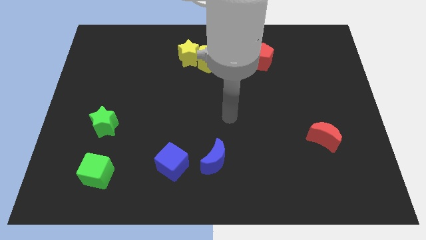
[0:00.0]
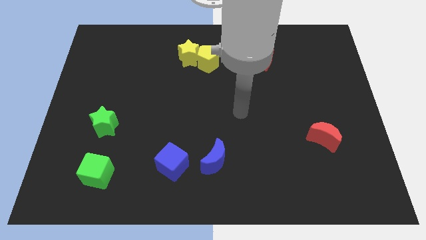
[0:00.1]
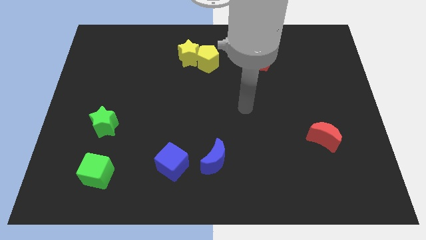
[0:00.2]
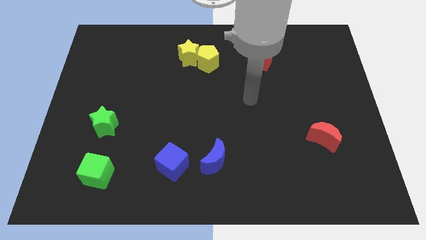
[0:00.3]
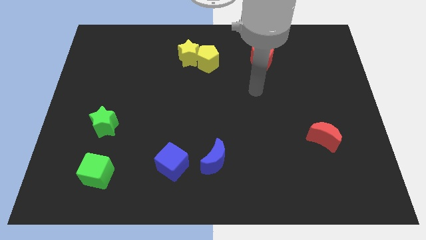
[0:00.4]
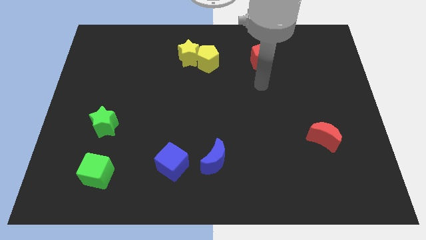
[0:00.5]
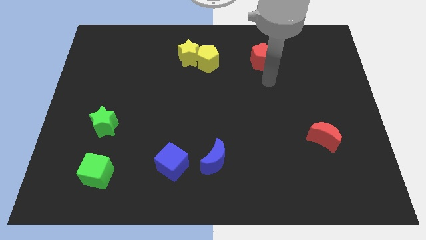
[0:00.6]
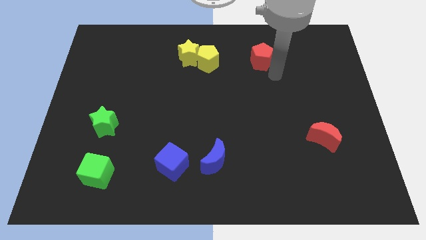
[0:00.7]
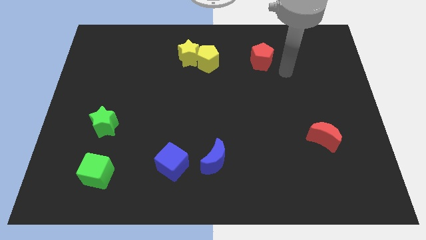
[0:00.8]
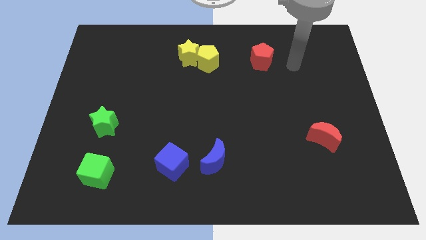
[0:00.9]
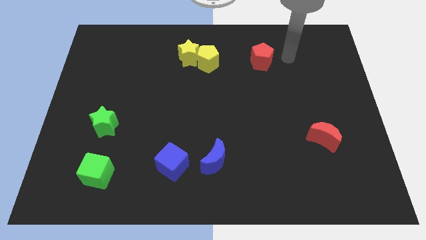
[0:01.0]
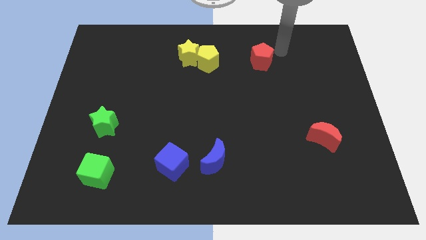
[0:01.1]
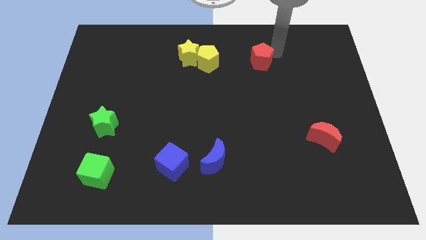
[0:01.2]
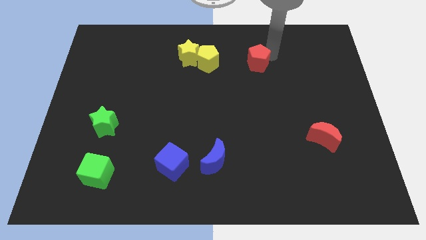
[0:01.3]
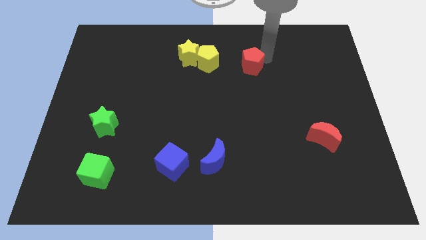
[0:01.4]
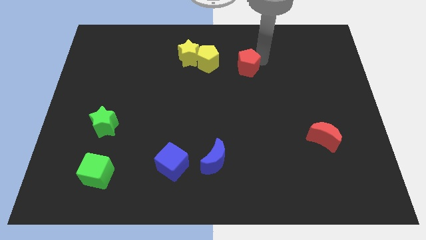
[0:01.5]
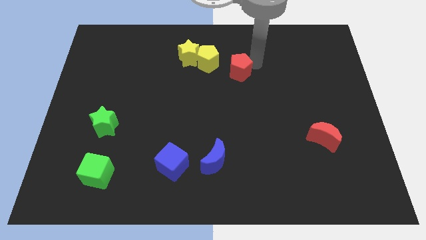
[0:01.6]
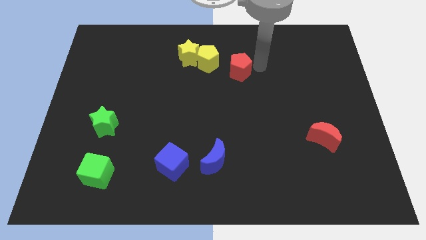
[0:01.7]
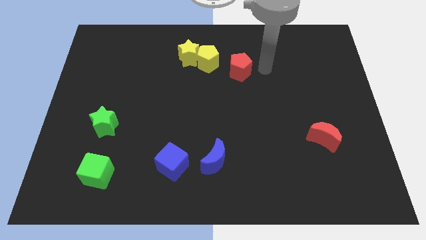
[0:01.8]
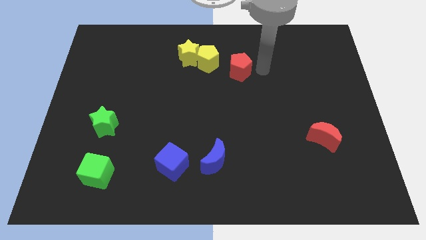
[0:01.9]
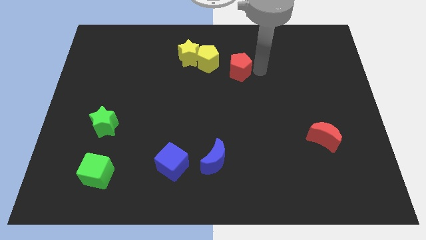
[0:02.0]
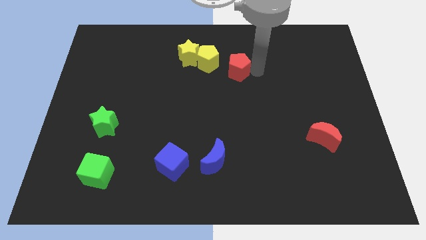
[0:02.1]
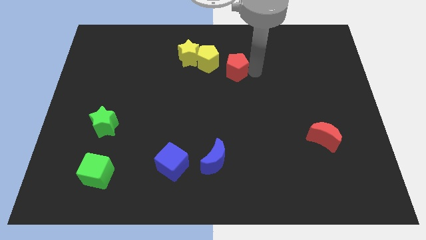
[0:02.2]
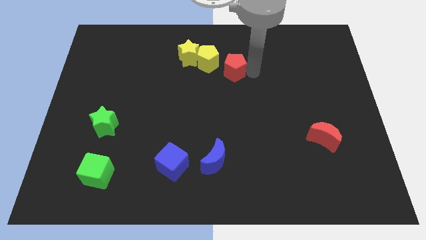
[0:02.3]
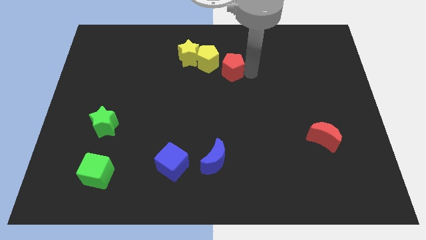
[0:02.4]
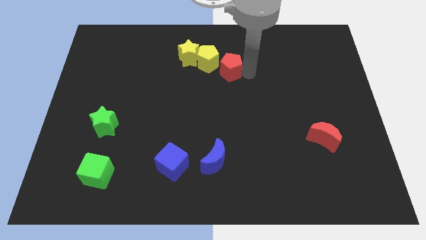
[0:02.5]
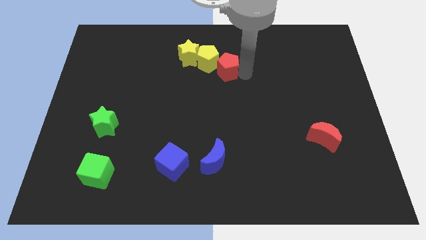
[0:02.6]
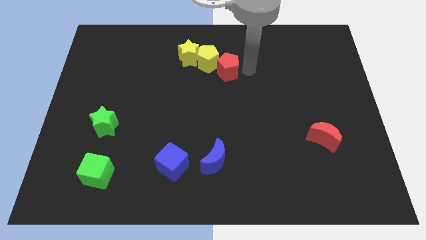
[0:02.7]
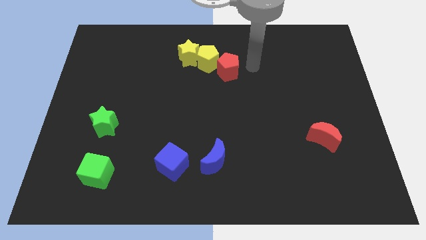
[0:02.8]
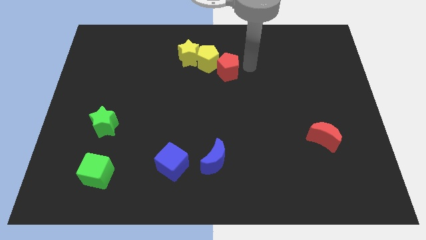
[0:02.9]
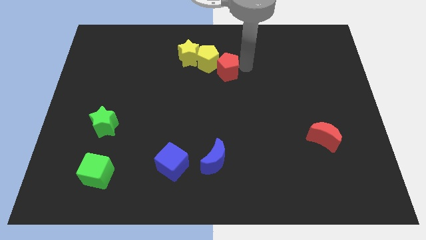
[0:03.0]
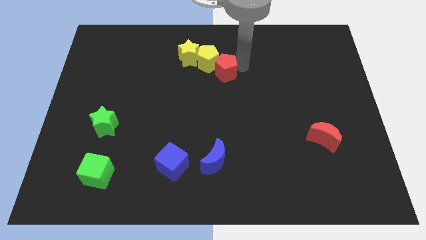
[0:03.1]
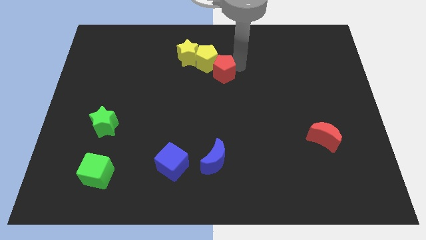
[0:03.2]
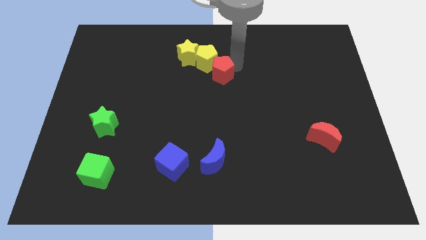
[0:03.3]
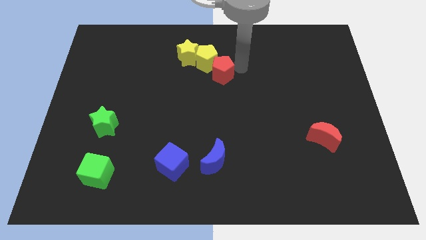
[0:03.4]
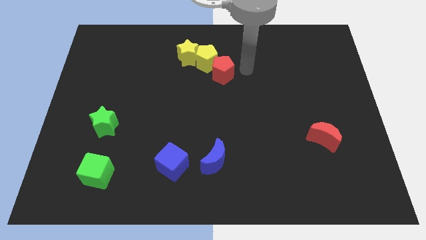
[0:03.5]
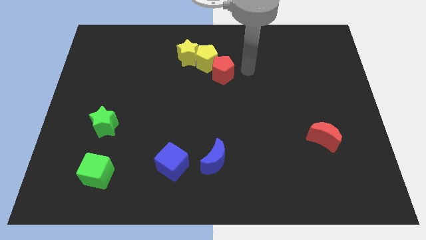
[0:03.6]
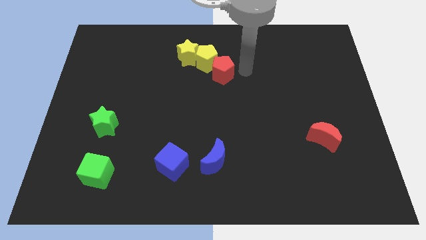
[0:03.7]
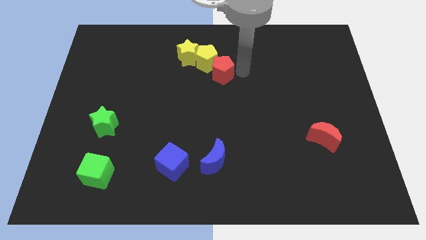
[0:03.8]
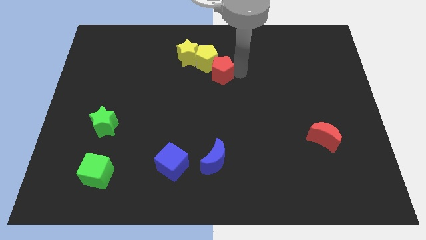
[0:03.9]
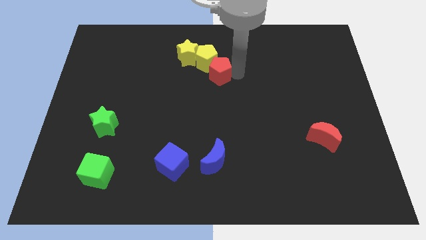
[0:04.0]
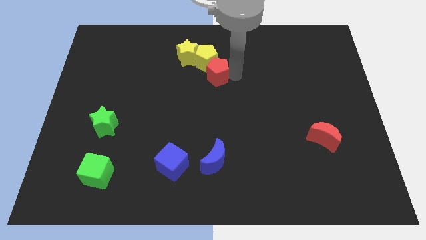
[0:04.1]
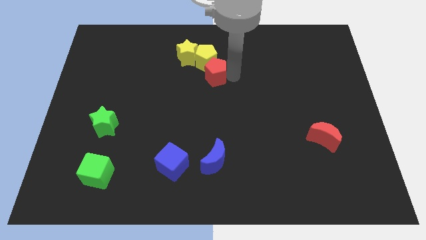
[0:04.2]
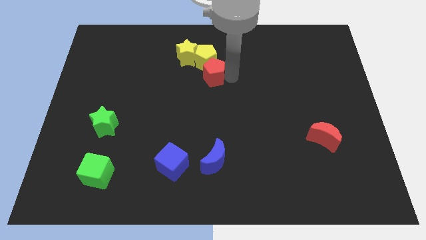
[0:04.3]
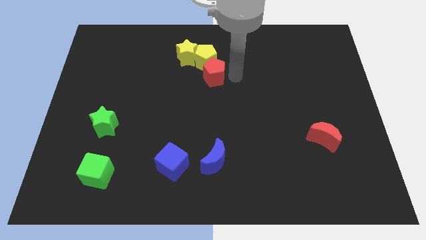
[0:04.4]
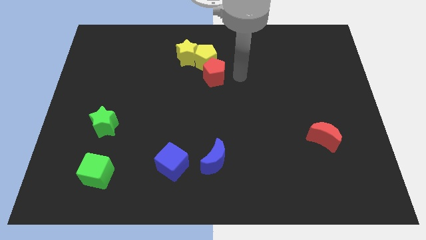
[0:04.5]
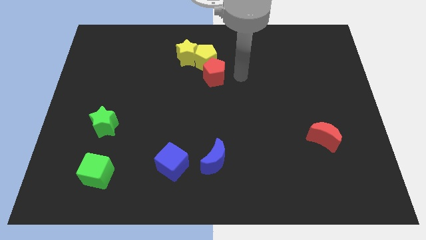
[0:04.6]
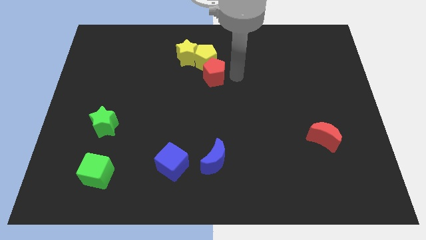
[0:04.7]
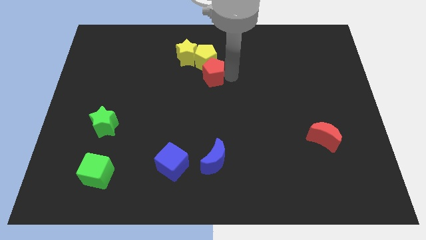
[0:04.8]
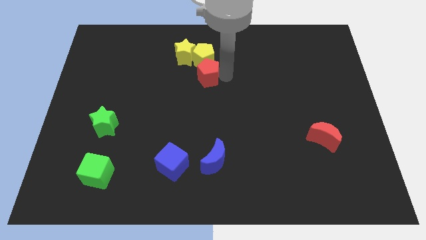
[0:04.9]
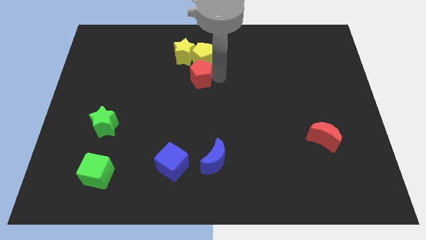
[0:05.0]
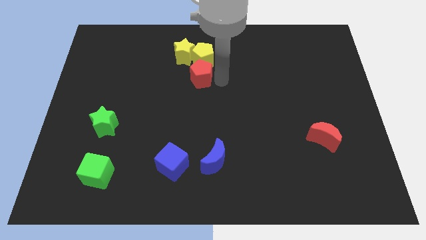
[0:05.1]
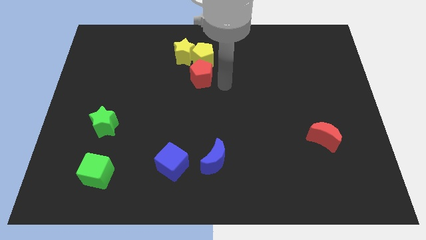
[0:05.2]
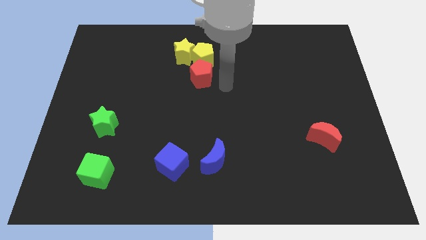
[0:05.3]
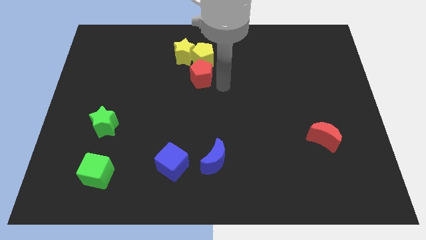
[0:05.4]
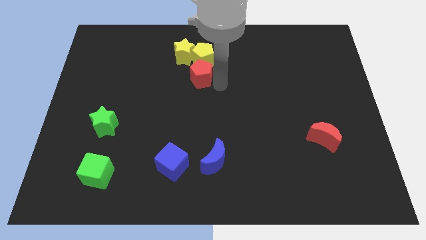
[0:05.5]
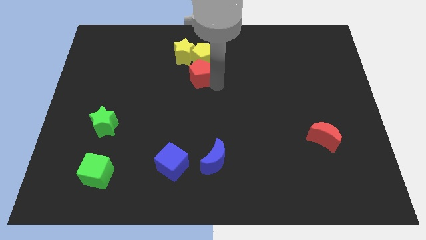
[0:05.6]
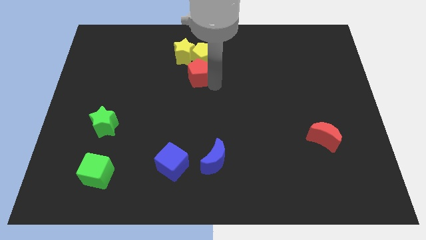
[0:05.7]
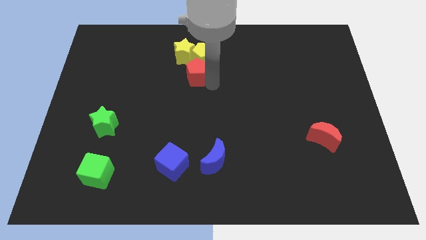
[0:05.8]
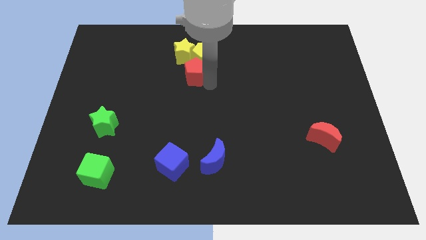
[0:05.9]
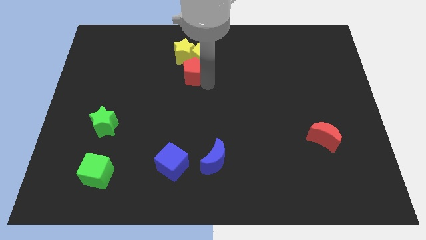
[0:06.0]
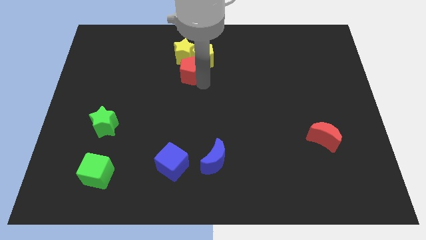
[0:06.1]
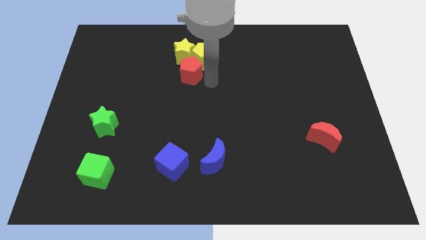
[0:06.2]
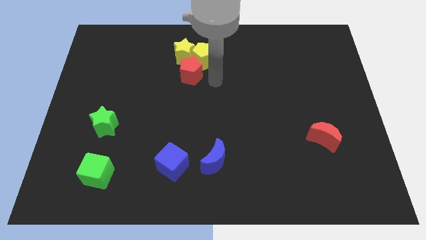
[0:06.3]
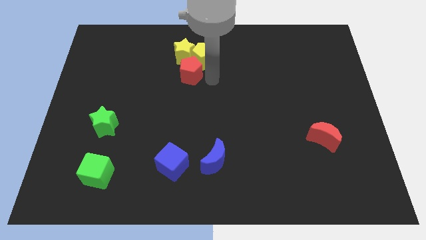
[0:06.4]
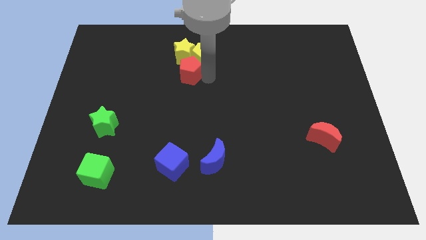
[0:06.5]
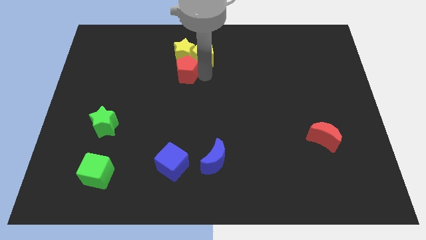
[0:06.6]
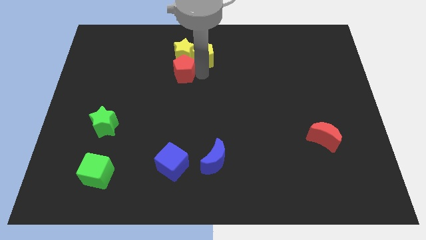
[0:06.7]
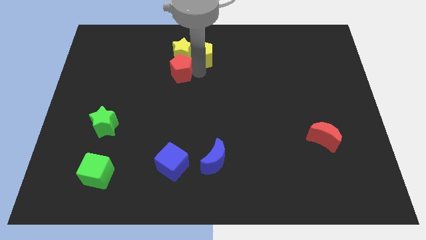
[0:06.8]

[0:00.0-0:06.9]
push the red pentagon left

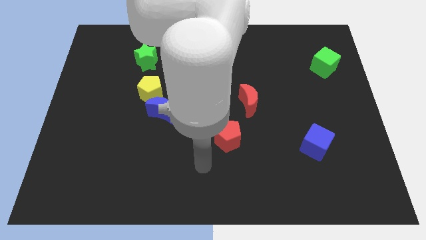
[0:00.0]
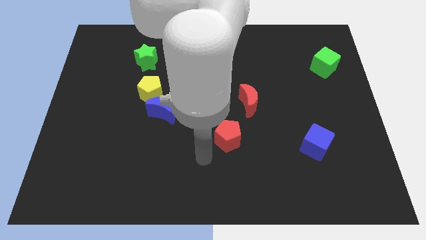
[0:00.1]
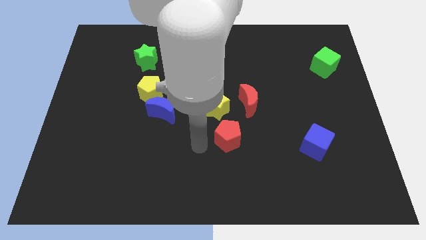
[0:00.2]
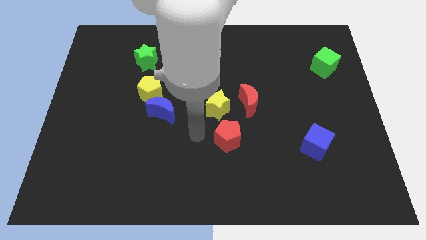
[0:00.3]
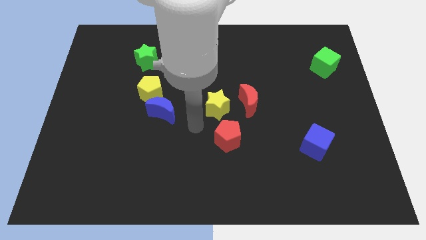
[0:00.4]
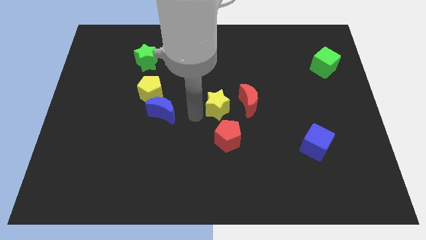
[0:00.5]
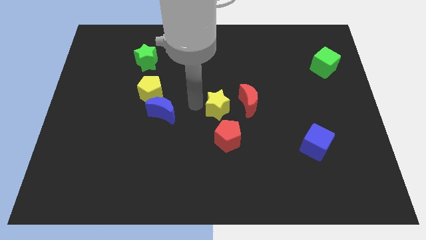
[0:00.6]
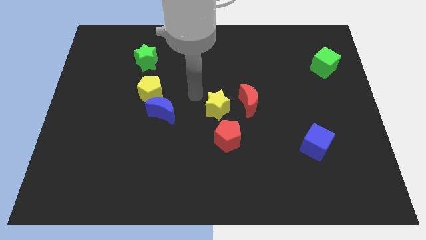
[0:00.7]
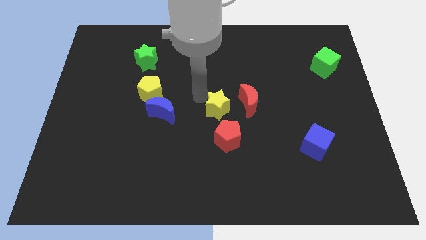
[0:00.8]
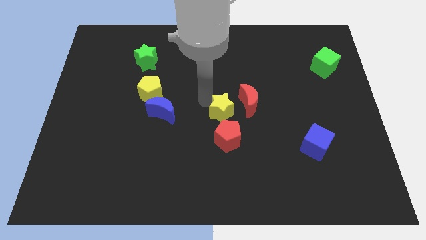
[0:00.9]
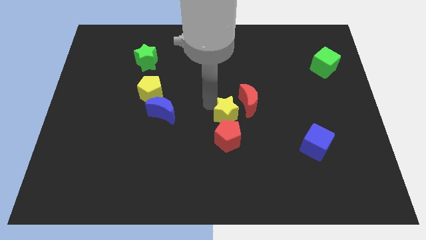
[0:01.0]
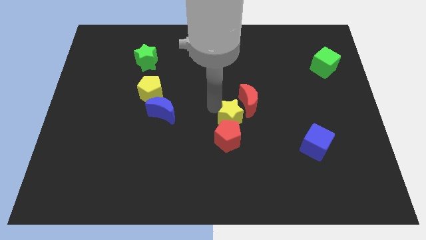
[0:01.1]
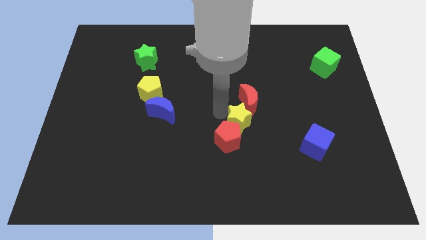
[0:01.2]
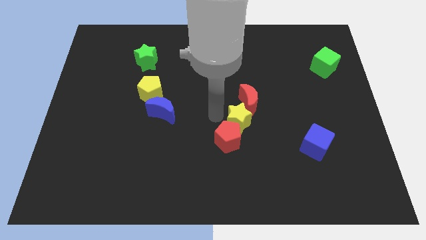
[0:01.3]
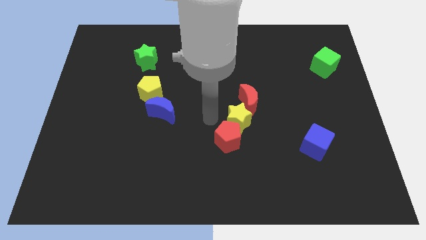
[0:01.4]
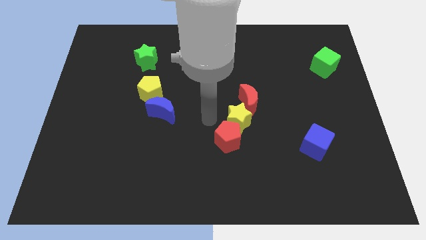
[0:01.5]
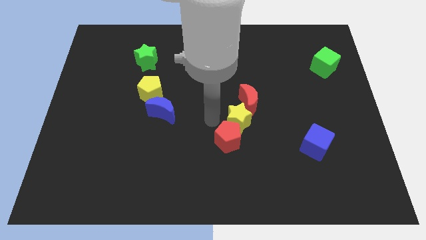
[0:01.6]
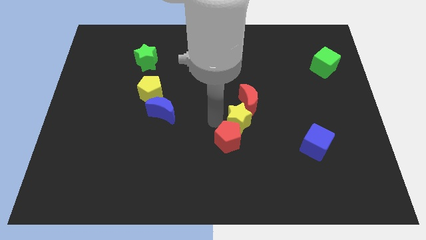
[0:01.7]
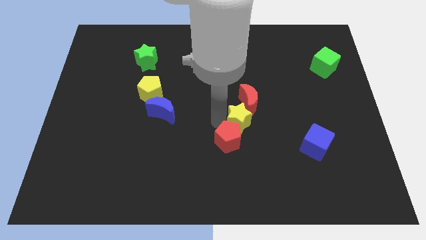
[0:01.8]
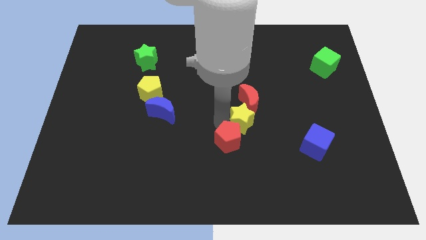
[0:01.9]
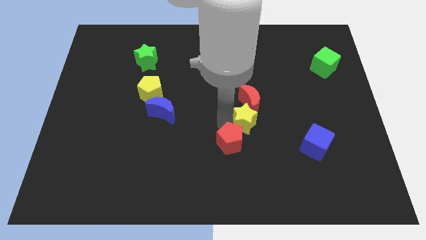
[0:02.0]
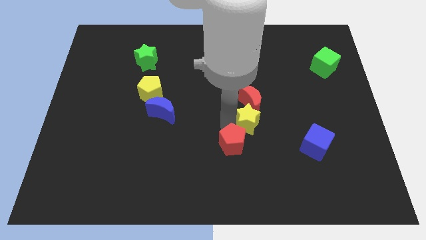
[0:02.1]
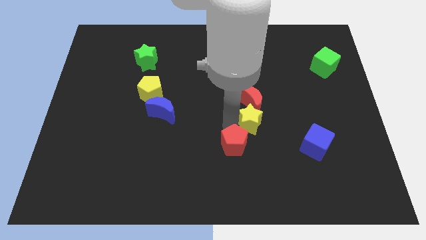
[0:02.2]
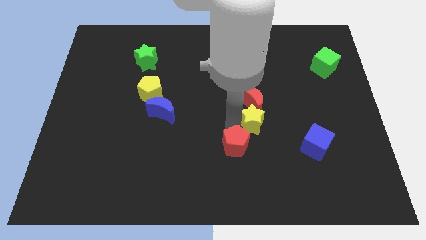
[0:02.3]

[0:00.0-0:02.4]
slightly move the yellow star right
